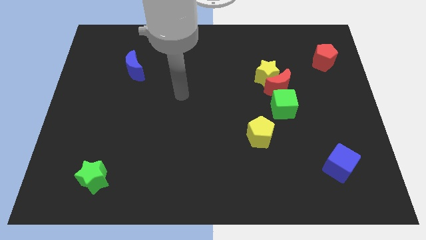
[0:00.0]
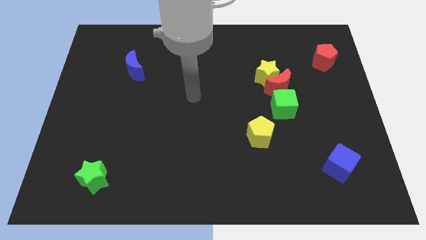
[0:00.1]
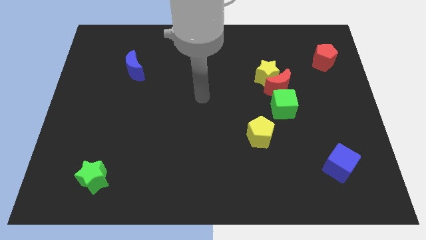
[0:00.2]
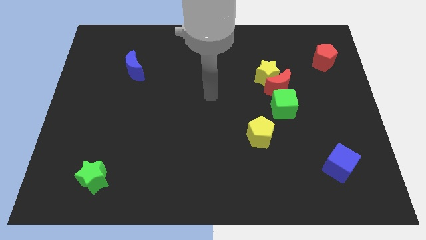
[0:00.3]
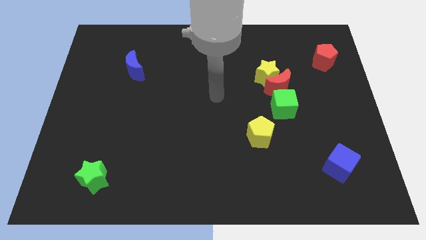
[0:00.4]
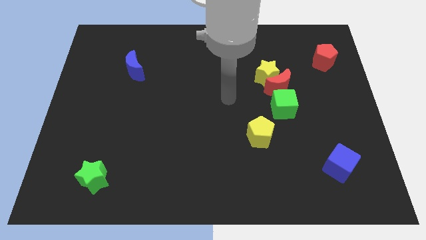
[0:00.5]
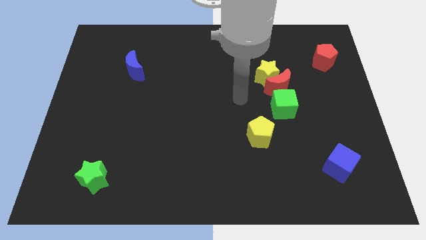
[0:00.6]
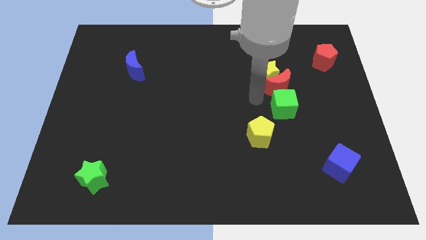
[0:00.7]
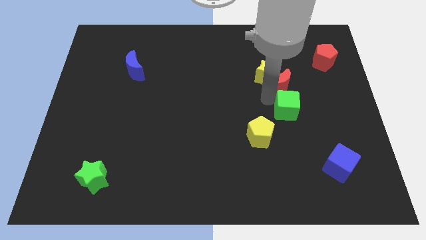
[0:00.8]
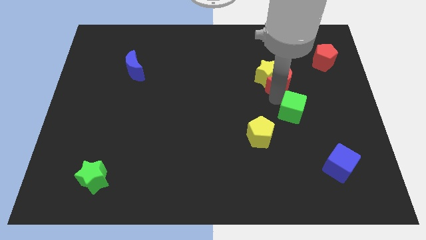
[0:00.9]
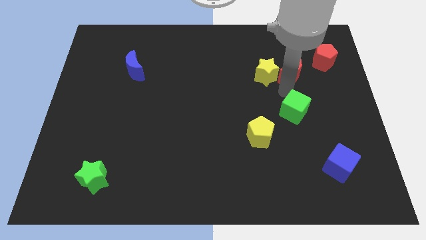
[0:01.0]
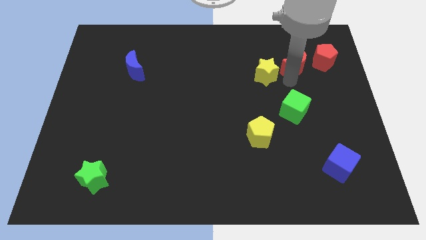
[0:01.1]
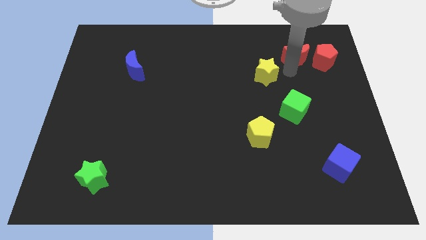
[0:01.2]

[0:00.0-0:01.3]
separate the yellow star from the red moon

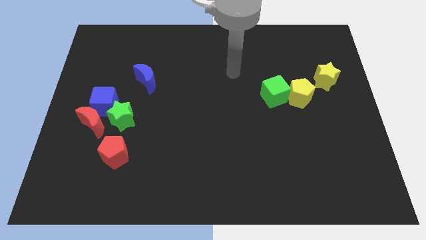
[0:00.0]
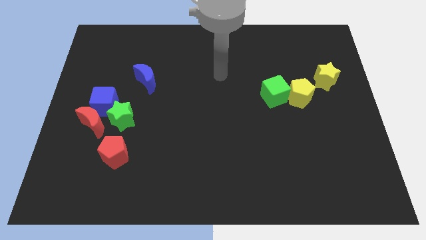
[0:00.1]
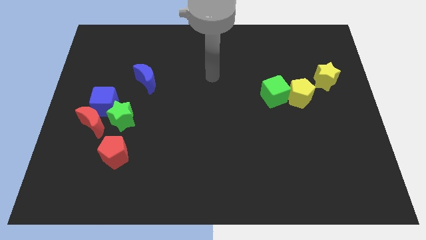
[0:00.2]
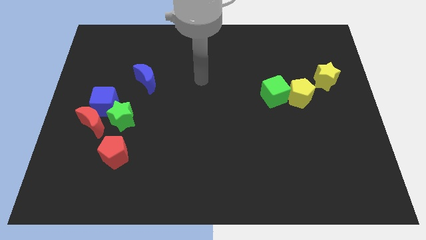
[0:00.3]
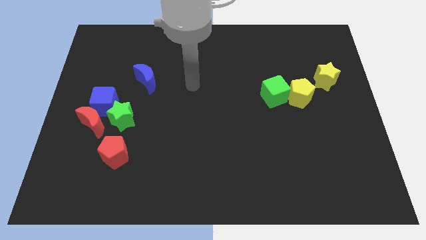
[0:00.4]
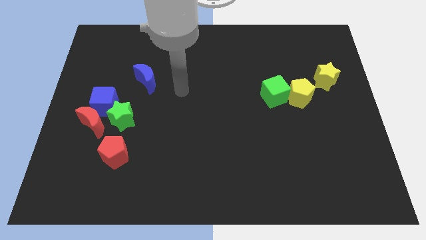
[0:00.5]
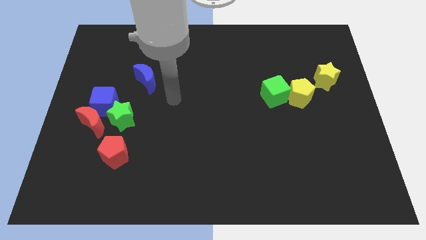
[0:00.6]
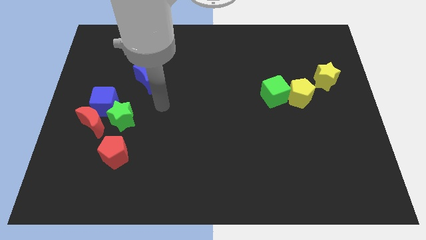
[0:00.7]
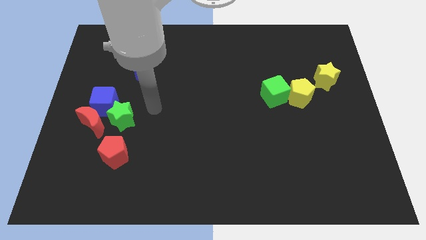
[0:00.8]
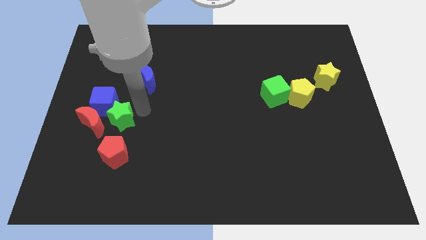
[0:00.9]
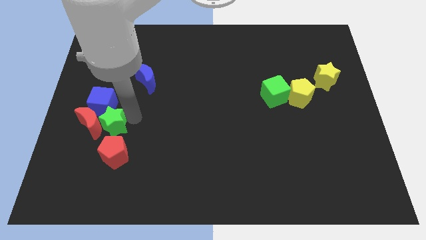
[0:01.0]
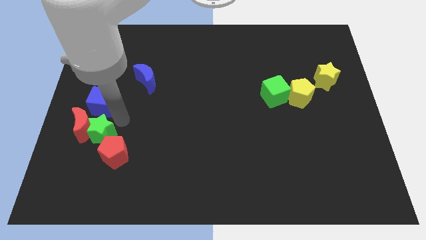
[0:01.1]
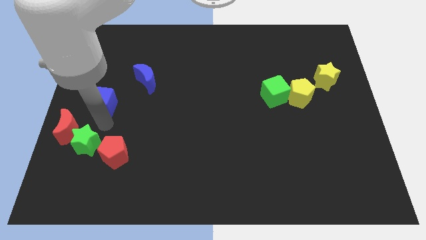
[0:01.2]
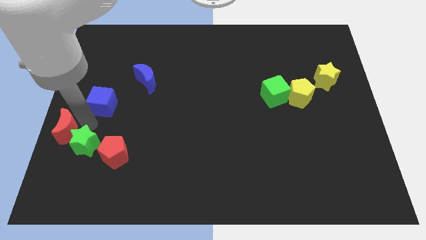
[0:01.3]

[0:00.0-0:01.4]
separate the blue cube from the red moon and green star

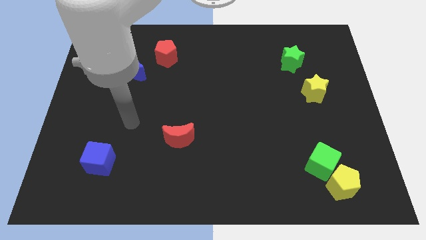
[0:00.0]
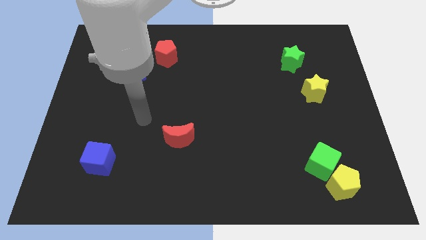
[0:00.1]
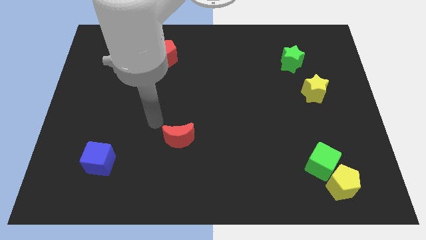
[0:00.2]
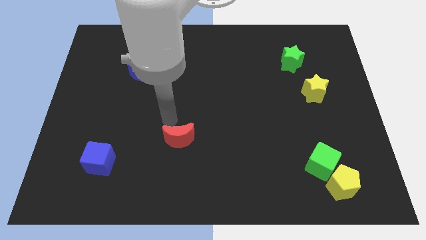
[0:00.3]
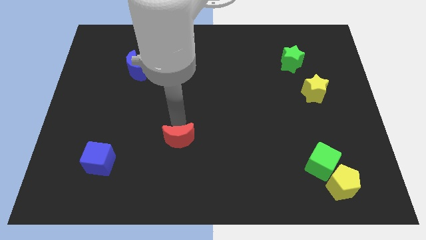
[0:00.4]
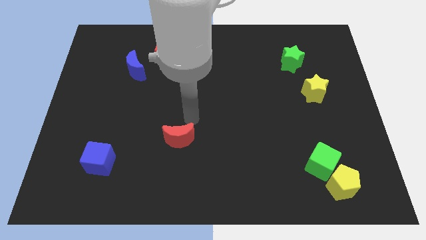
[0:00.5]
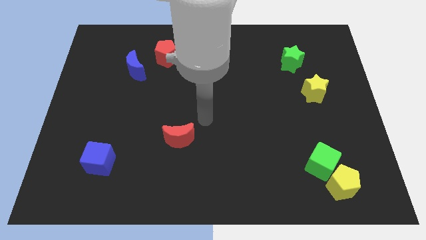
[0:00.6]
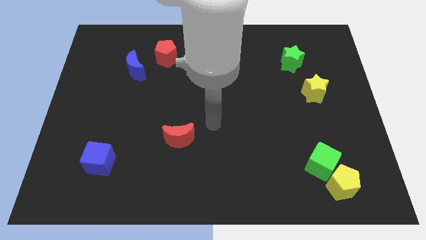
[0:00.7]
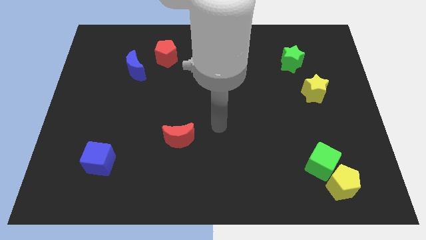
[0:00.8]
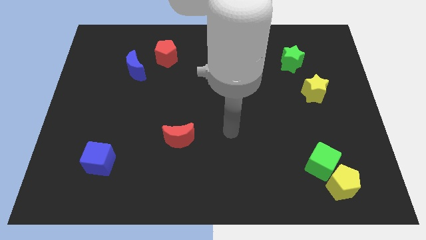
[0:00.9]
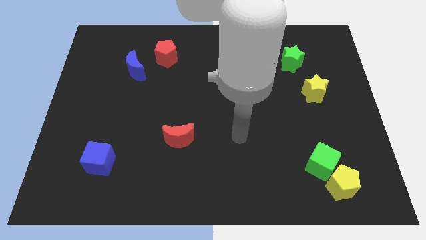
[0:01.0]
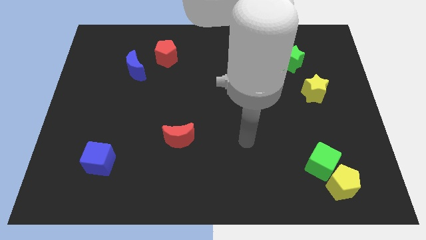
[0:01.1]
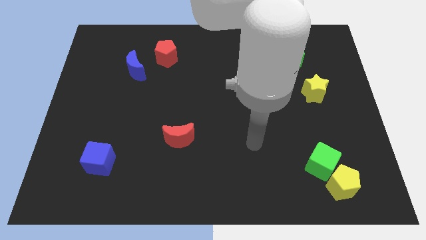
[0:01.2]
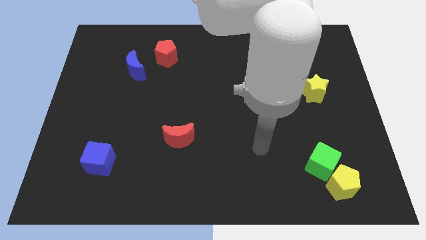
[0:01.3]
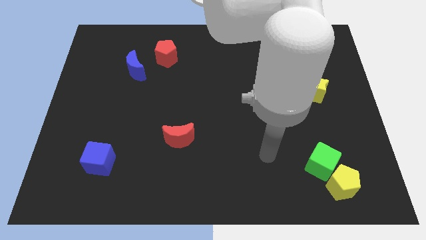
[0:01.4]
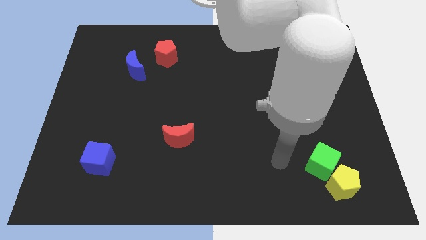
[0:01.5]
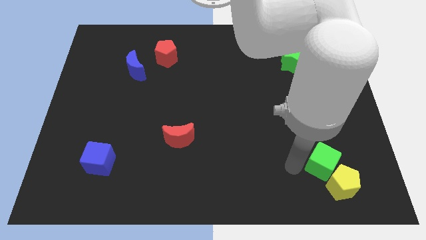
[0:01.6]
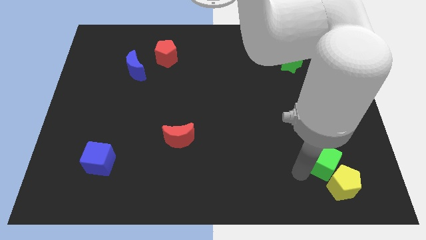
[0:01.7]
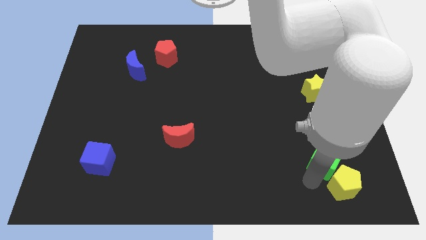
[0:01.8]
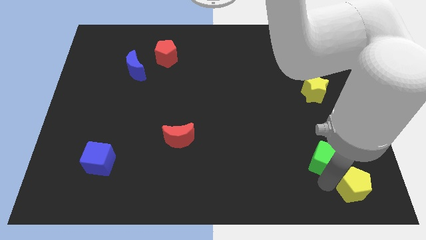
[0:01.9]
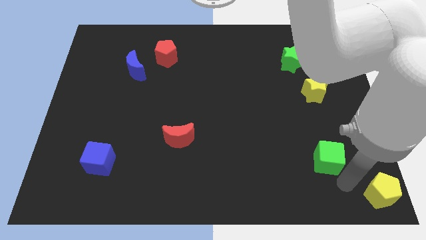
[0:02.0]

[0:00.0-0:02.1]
pull the green cube apart from the yellow pentagon

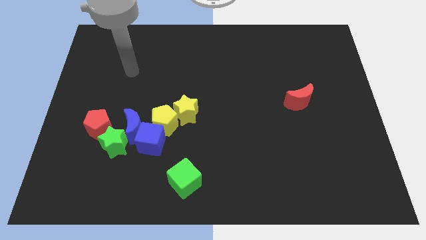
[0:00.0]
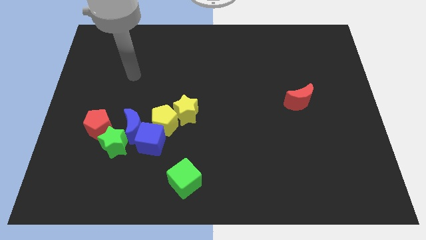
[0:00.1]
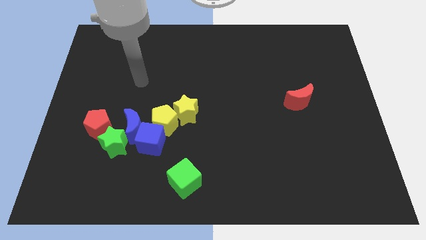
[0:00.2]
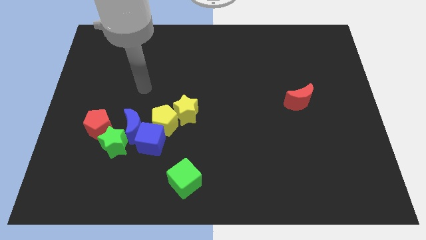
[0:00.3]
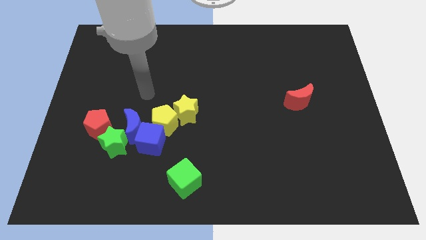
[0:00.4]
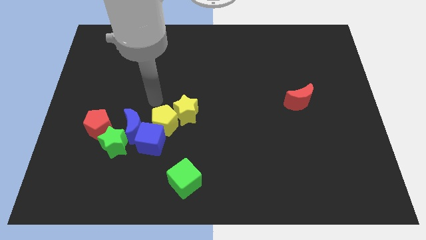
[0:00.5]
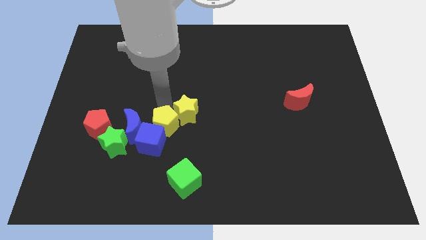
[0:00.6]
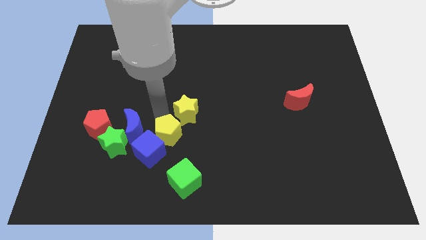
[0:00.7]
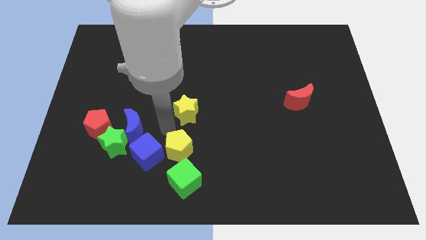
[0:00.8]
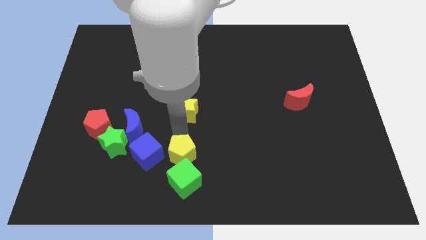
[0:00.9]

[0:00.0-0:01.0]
separate the yellow star from the yellow pentagon

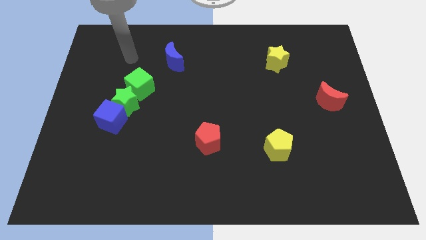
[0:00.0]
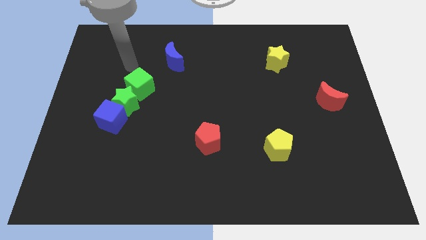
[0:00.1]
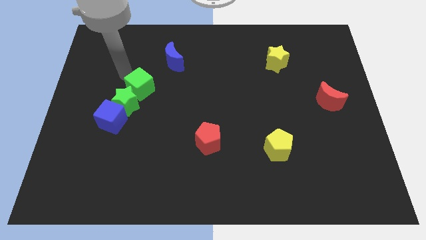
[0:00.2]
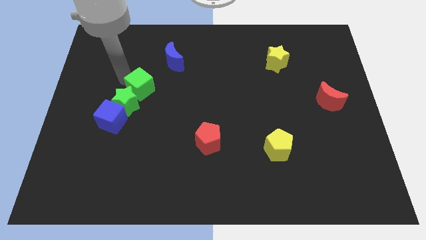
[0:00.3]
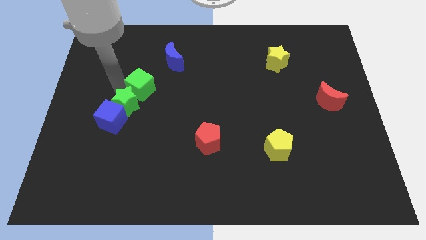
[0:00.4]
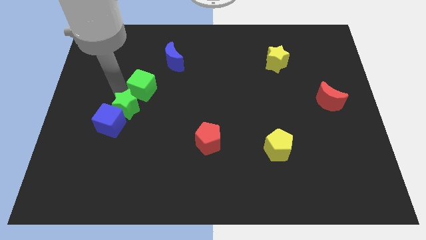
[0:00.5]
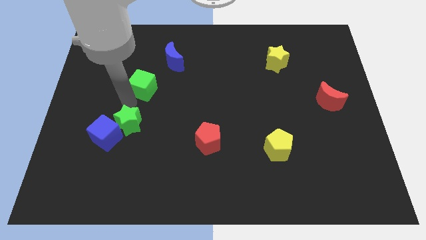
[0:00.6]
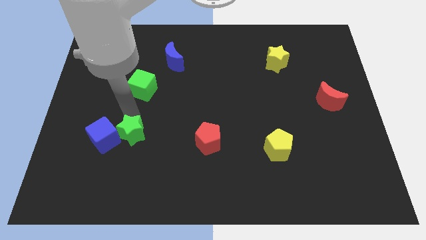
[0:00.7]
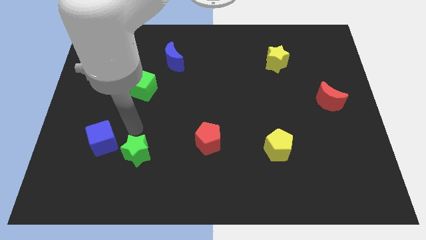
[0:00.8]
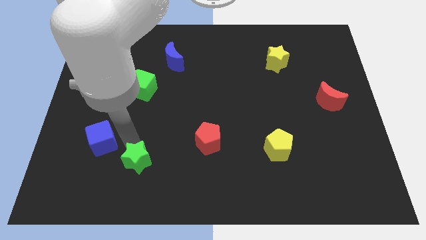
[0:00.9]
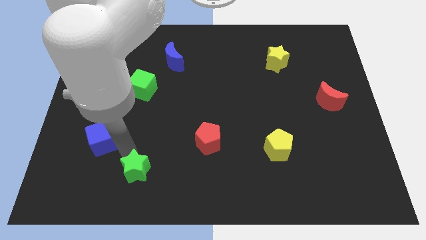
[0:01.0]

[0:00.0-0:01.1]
separate the blue cube from the green star

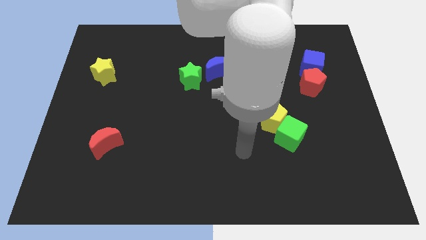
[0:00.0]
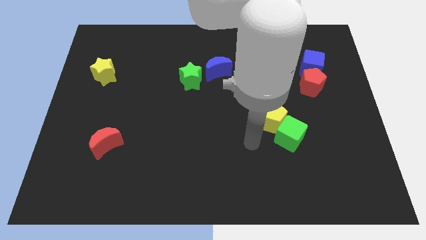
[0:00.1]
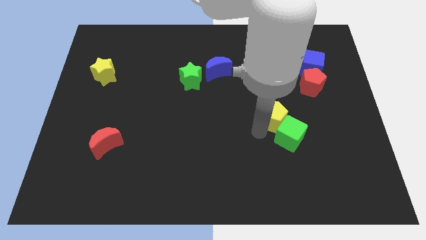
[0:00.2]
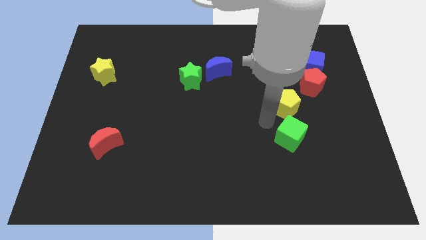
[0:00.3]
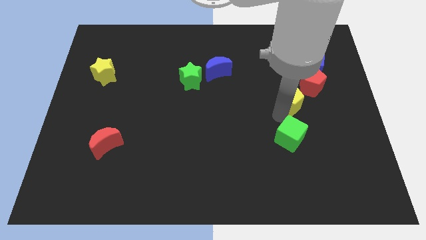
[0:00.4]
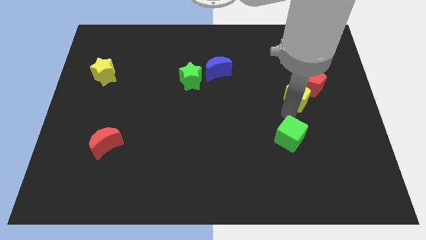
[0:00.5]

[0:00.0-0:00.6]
move the green cube away from the yellow pentagon

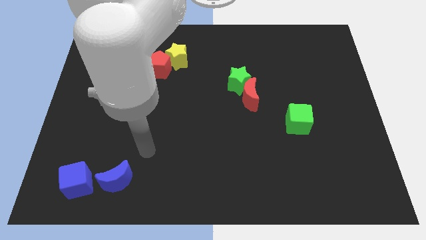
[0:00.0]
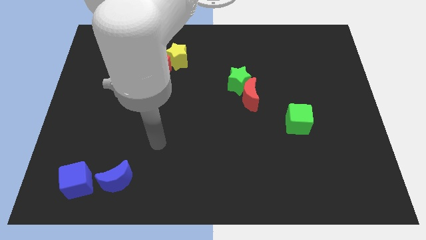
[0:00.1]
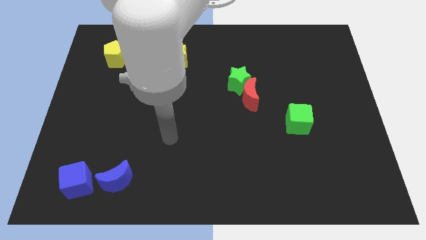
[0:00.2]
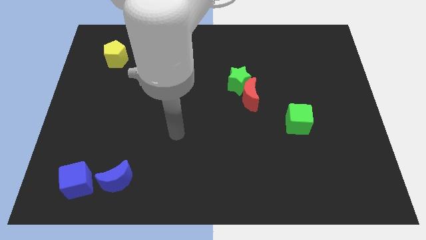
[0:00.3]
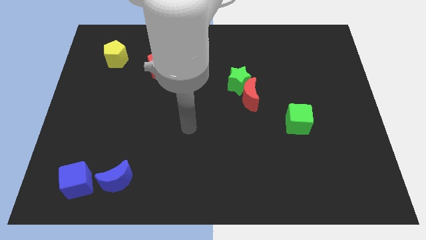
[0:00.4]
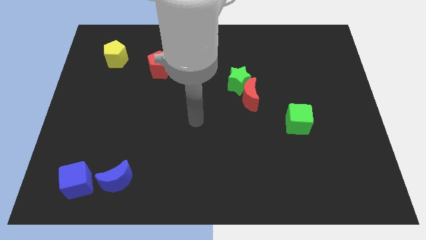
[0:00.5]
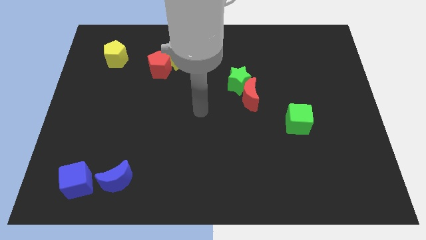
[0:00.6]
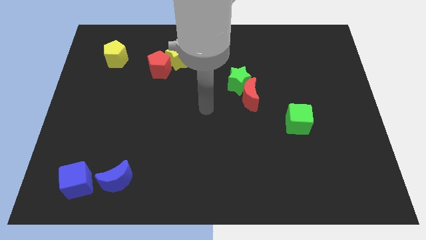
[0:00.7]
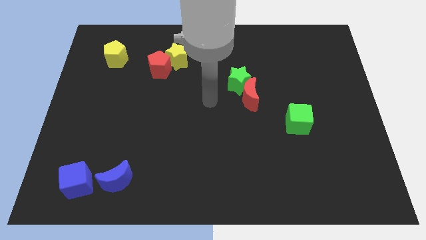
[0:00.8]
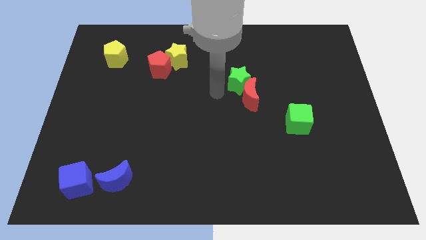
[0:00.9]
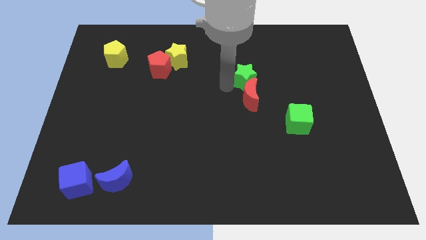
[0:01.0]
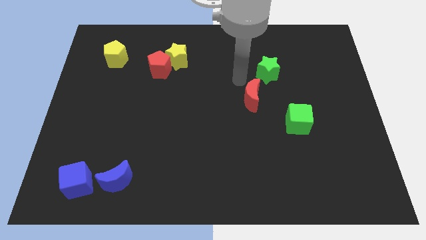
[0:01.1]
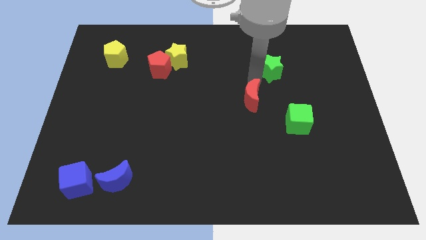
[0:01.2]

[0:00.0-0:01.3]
move the red moon away from the green star

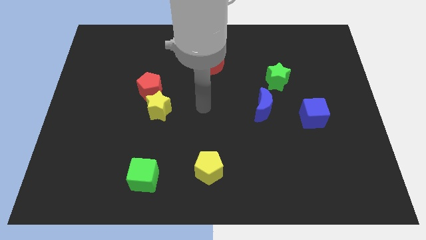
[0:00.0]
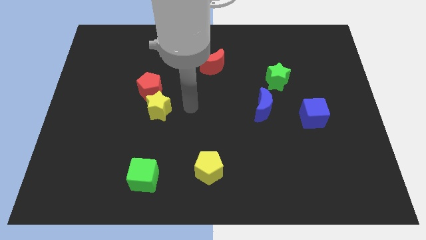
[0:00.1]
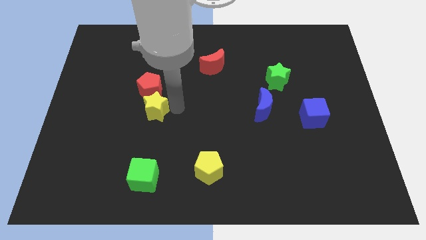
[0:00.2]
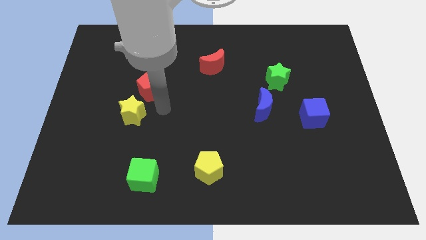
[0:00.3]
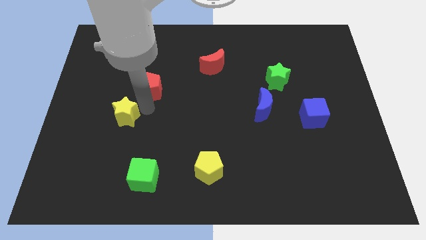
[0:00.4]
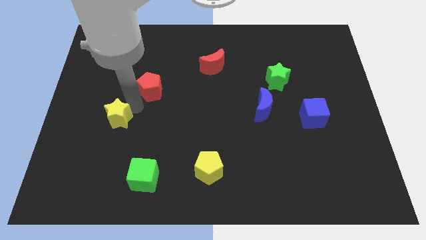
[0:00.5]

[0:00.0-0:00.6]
separate the red pentagon from the yellow star
